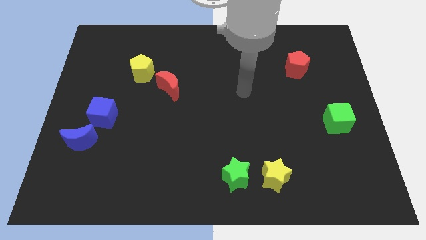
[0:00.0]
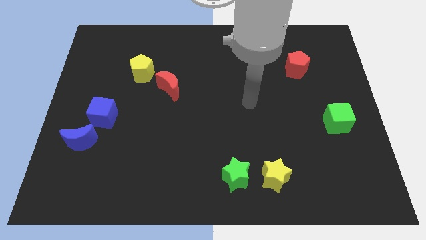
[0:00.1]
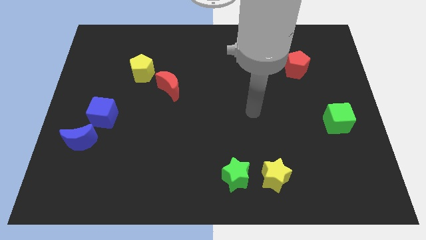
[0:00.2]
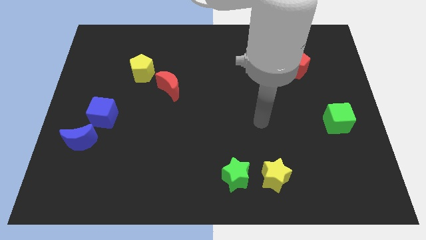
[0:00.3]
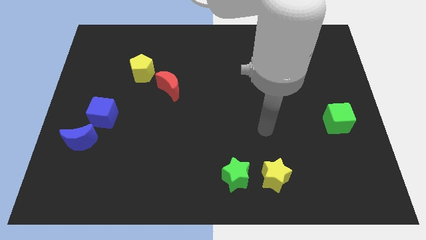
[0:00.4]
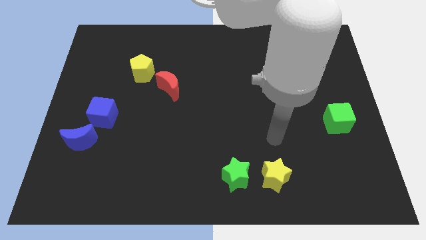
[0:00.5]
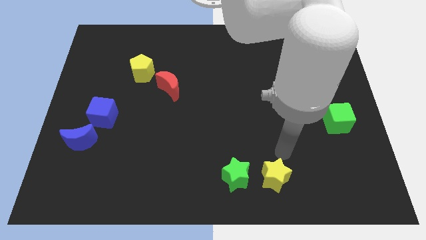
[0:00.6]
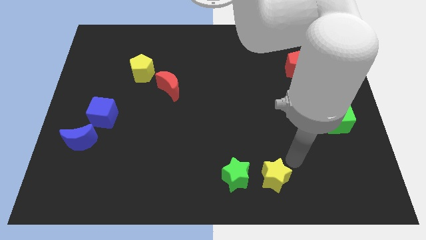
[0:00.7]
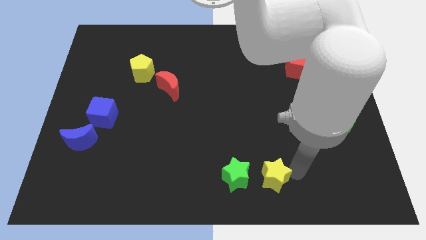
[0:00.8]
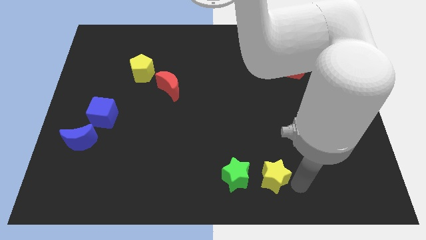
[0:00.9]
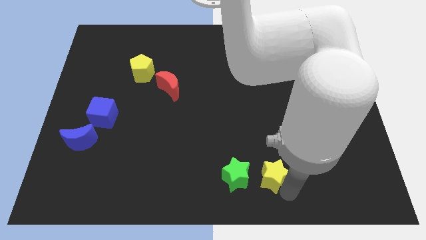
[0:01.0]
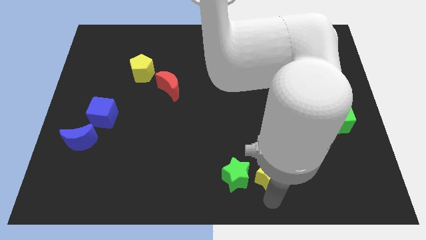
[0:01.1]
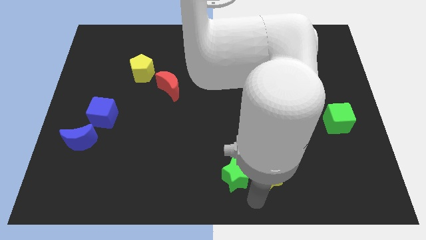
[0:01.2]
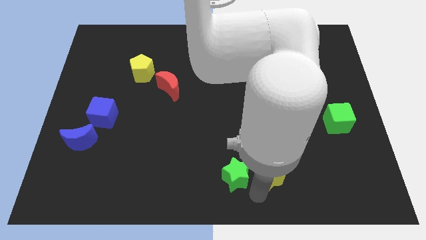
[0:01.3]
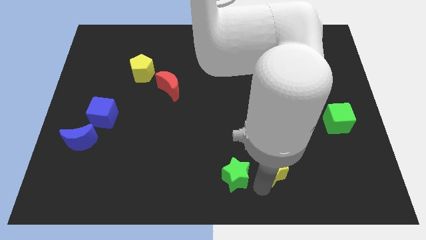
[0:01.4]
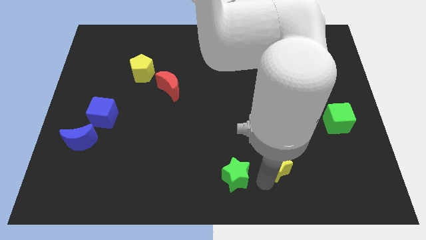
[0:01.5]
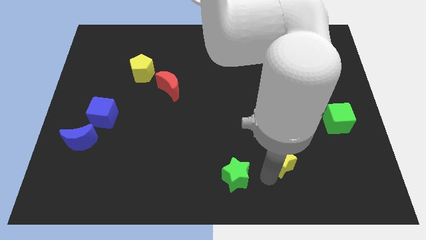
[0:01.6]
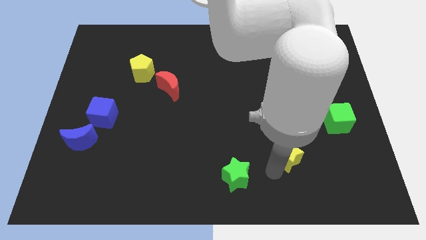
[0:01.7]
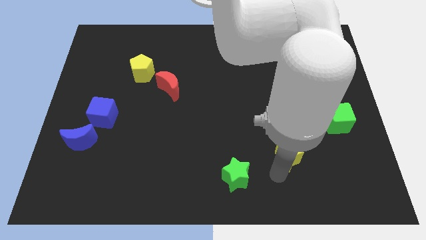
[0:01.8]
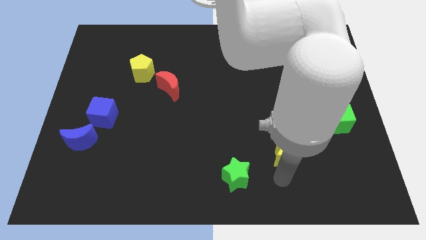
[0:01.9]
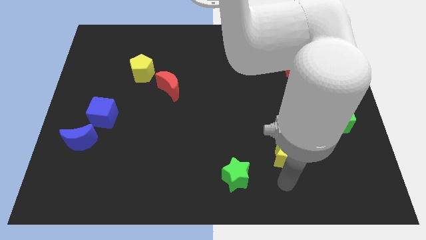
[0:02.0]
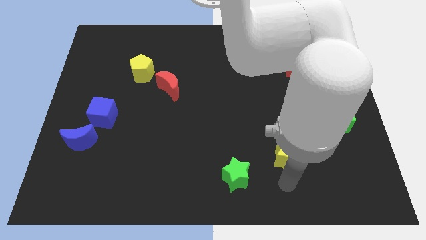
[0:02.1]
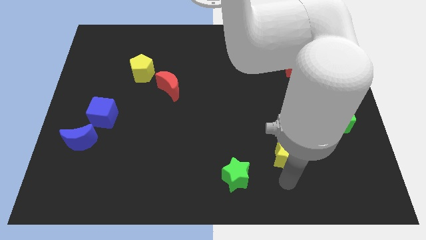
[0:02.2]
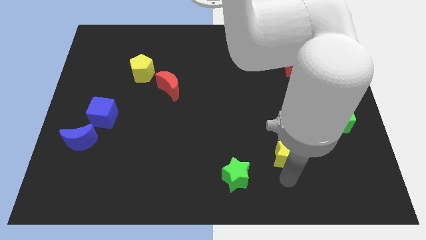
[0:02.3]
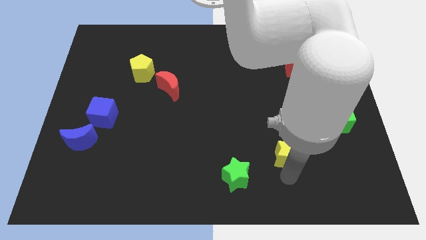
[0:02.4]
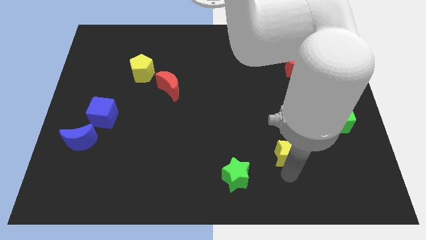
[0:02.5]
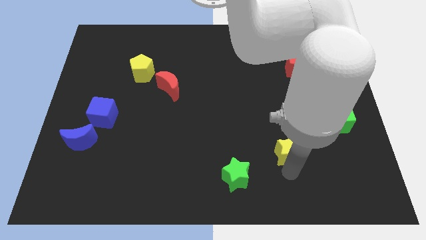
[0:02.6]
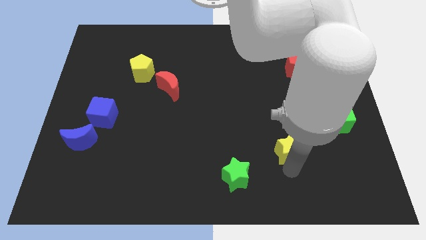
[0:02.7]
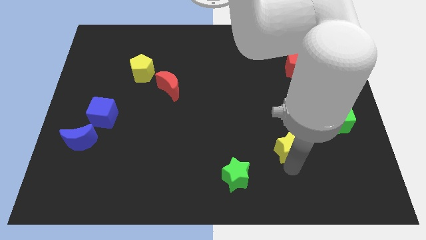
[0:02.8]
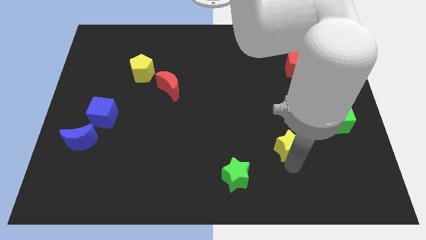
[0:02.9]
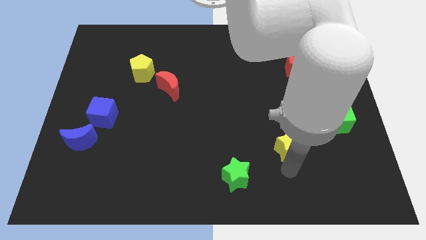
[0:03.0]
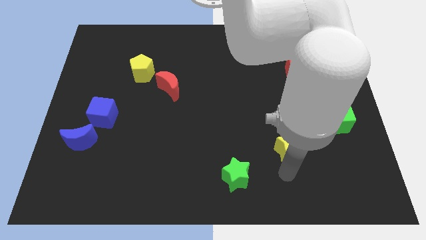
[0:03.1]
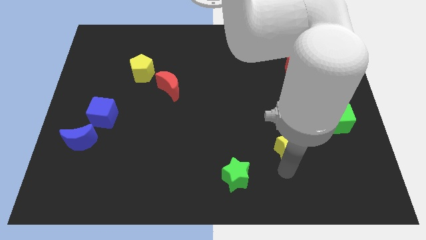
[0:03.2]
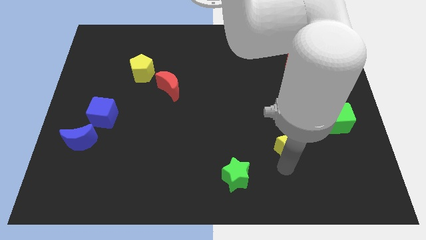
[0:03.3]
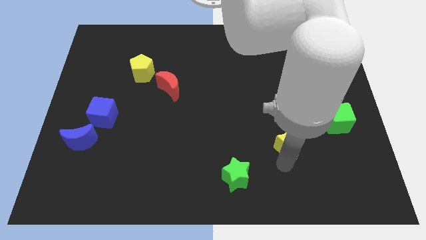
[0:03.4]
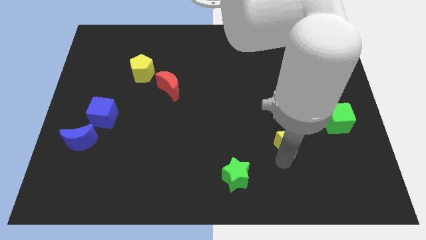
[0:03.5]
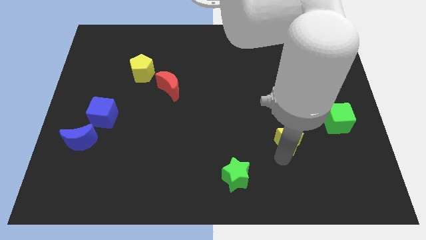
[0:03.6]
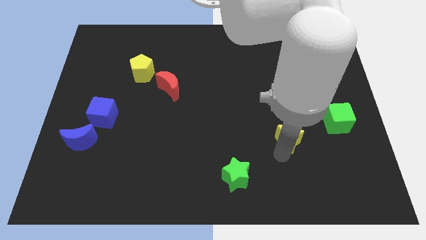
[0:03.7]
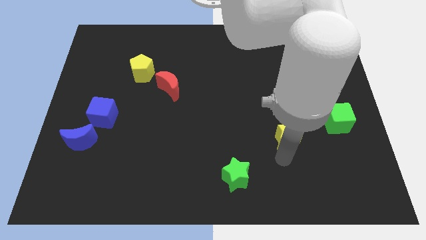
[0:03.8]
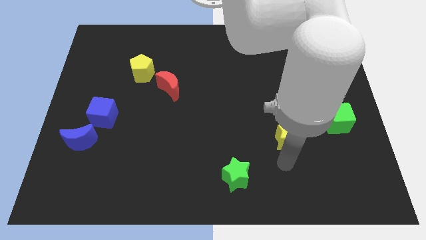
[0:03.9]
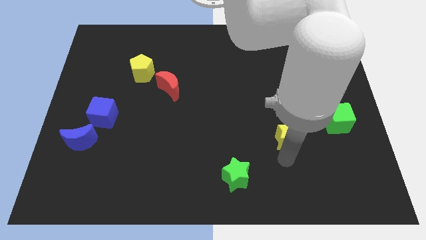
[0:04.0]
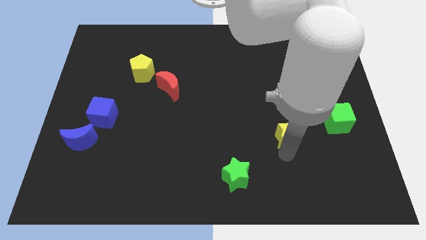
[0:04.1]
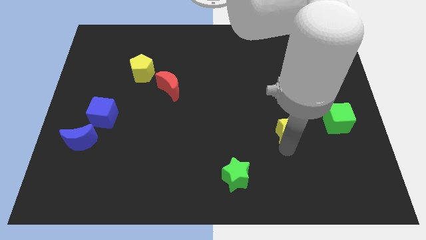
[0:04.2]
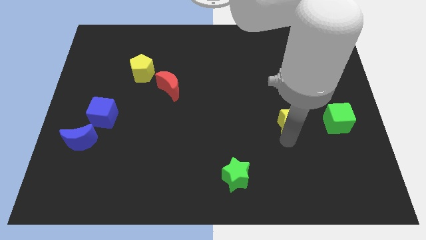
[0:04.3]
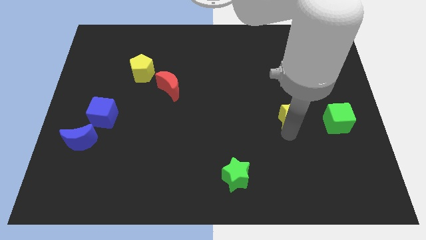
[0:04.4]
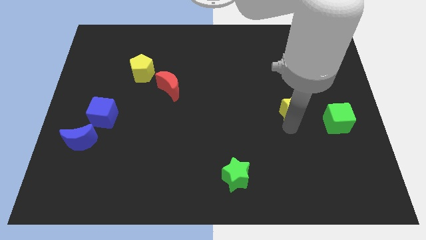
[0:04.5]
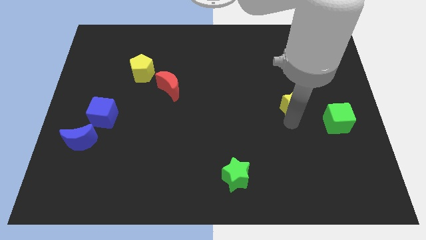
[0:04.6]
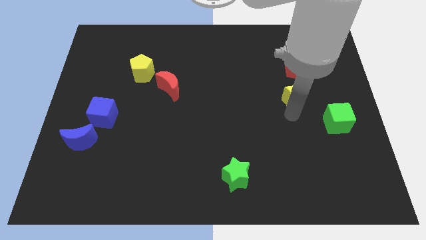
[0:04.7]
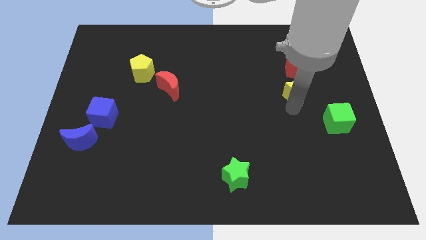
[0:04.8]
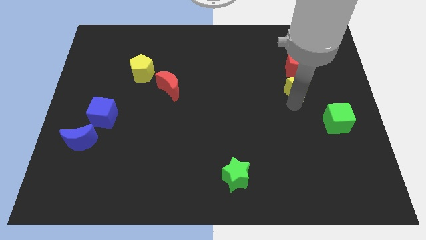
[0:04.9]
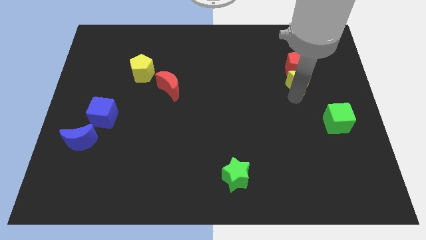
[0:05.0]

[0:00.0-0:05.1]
move the yellow star close to the red pentagon

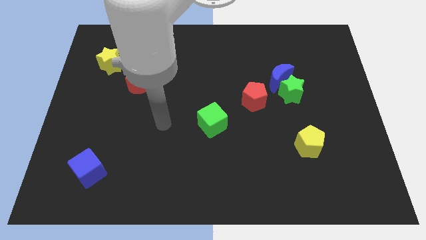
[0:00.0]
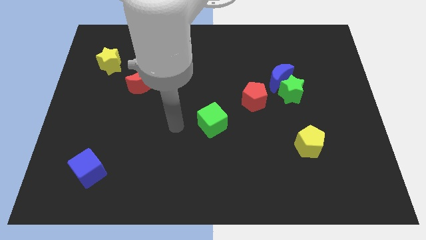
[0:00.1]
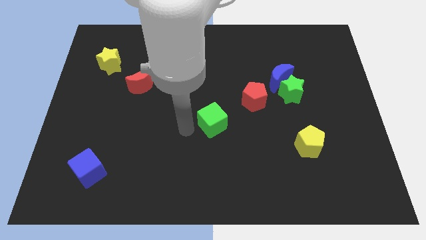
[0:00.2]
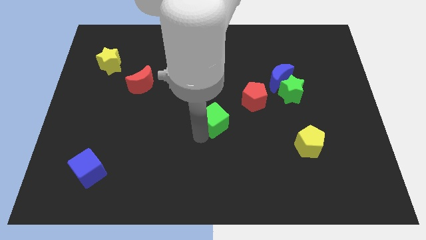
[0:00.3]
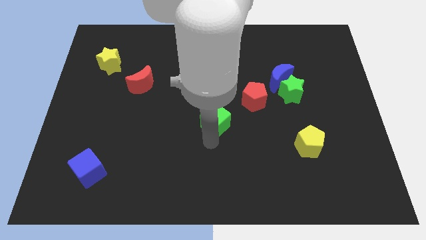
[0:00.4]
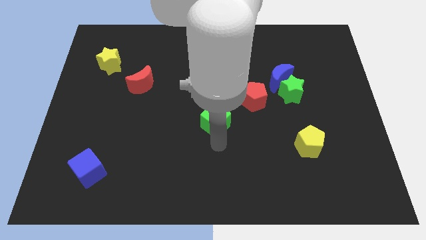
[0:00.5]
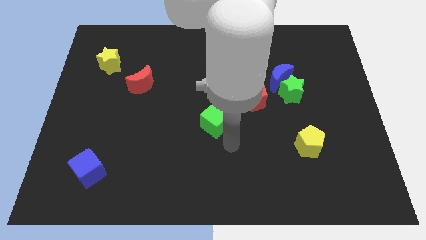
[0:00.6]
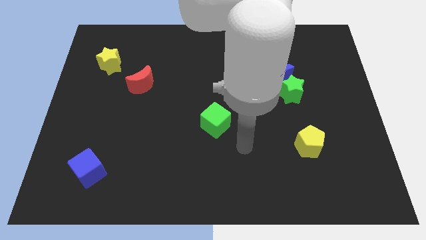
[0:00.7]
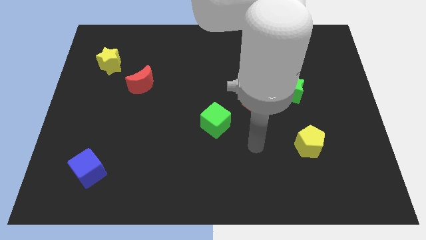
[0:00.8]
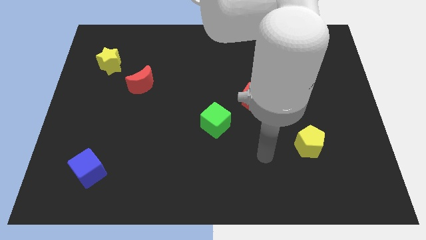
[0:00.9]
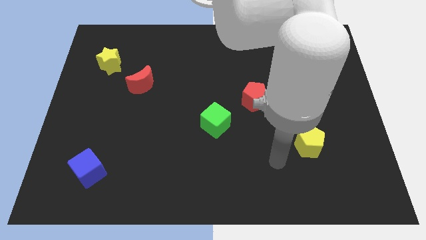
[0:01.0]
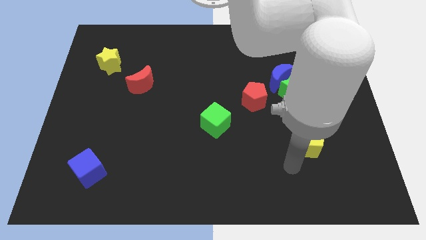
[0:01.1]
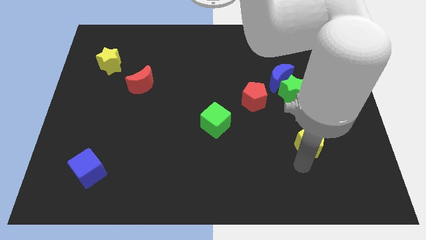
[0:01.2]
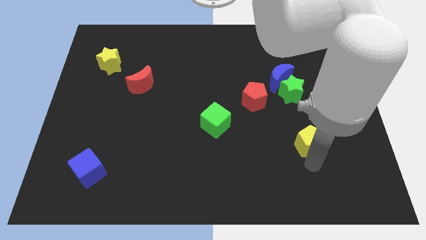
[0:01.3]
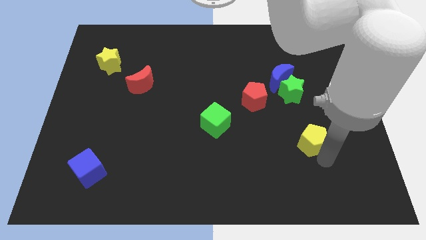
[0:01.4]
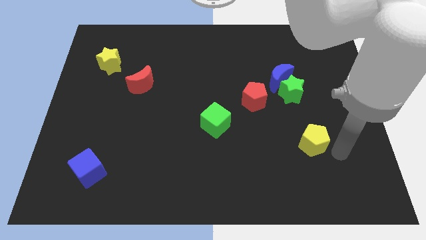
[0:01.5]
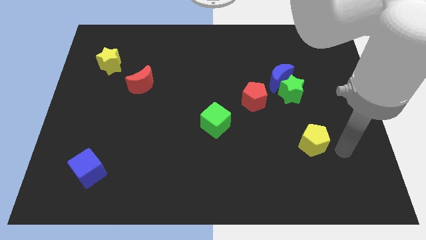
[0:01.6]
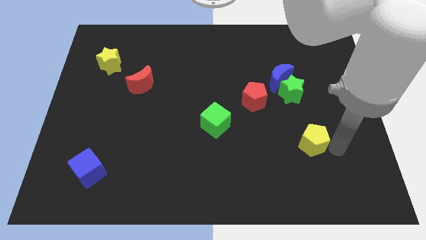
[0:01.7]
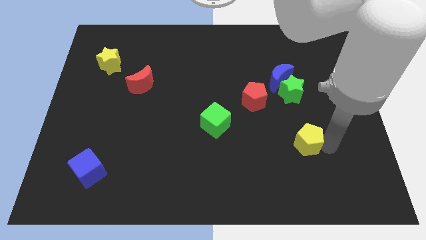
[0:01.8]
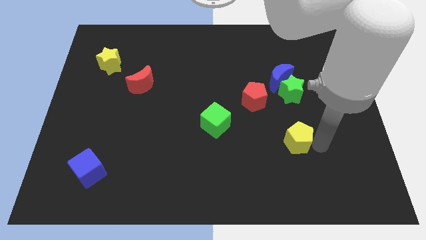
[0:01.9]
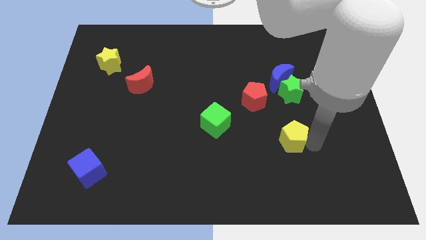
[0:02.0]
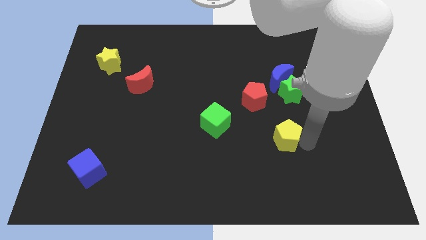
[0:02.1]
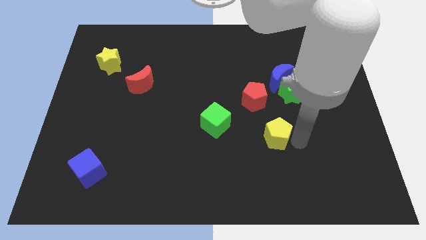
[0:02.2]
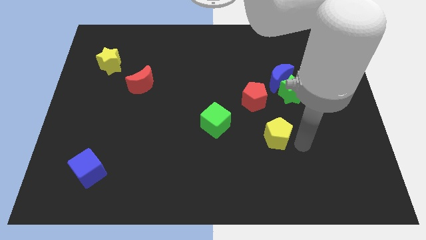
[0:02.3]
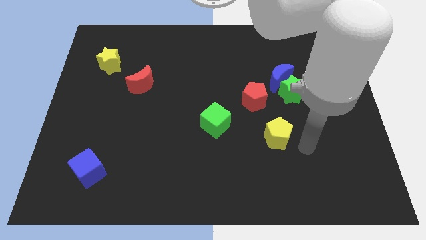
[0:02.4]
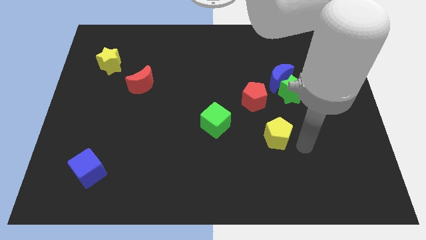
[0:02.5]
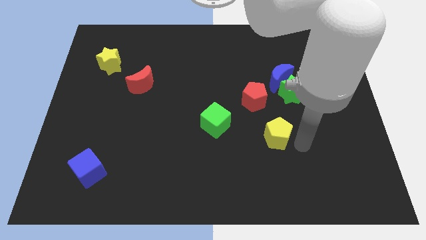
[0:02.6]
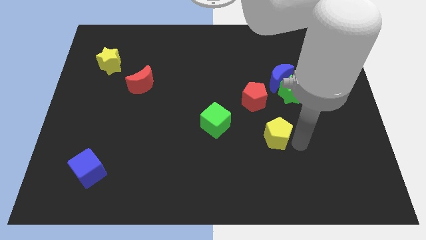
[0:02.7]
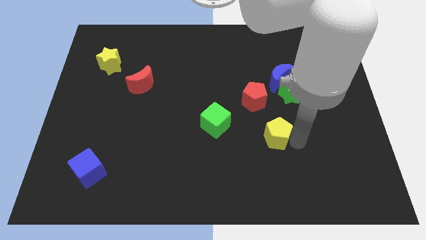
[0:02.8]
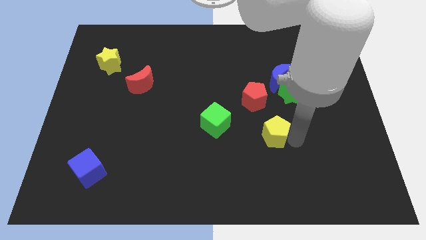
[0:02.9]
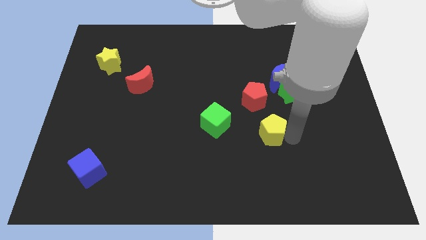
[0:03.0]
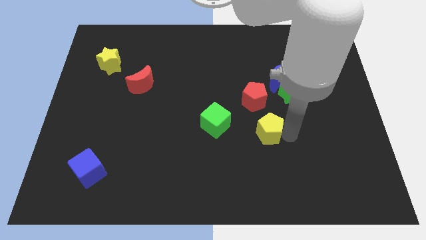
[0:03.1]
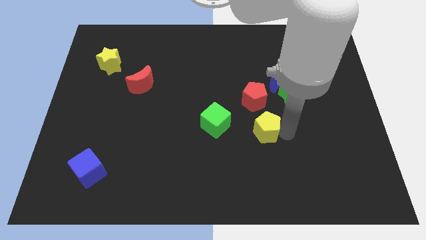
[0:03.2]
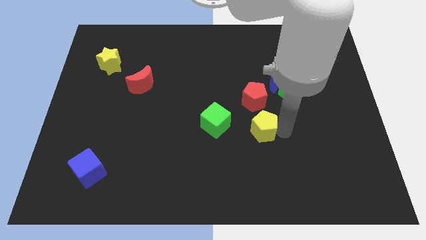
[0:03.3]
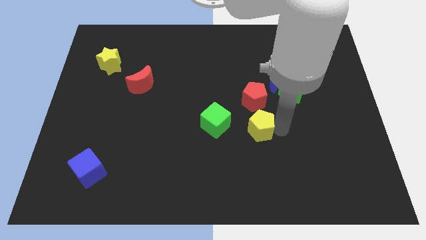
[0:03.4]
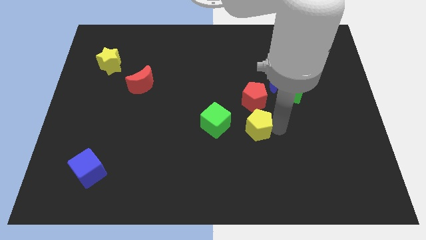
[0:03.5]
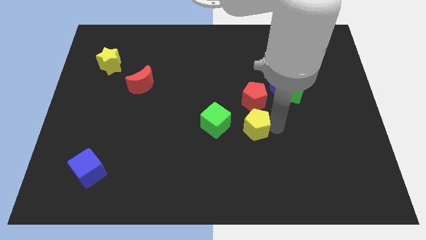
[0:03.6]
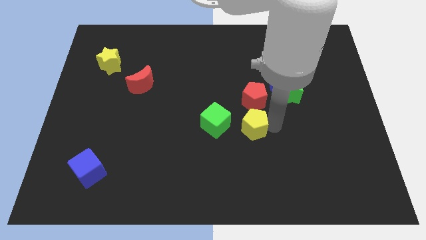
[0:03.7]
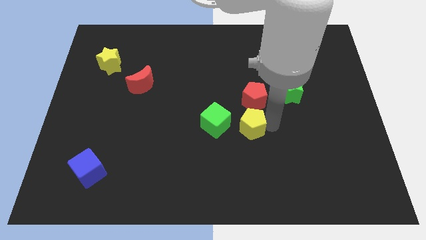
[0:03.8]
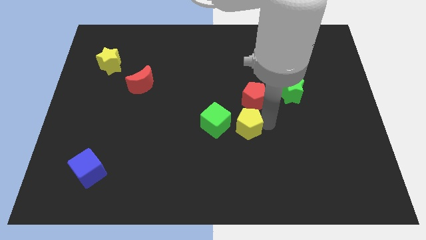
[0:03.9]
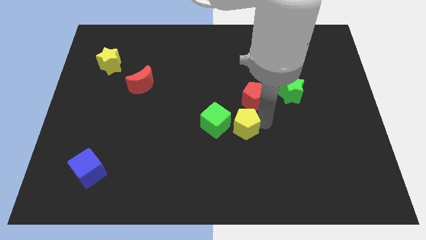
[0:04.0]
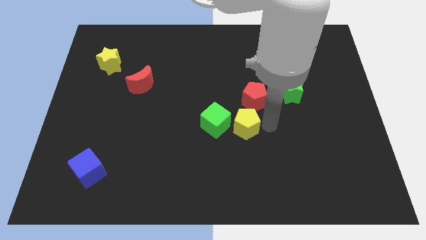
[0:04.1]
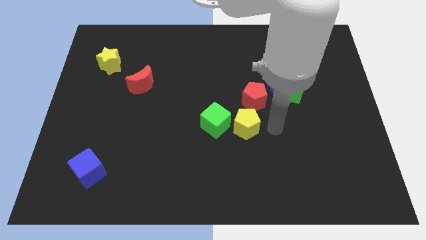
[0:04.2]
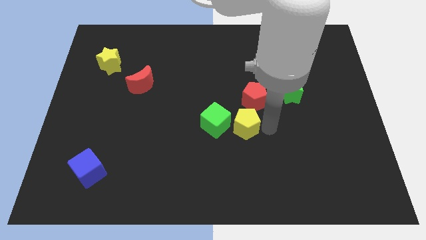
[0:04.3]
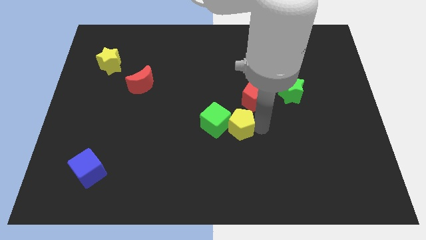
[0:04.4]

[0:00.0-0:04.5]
push the yellow pentagon to the green cube
